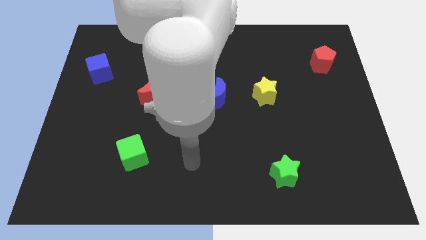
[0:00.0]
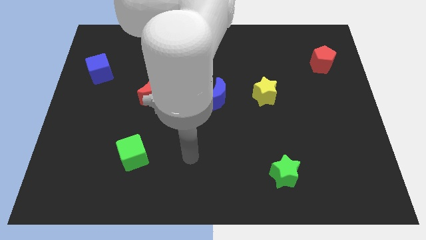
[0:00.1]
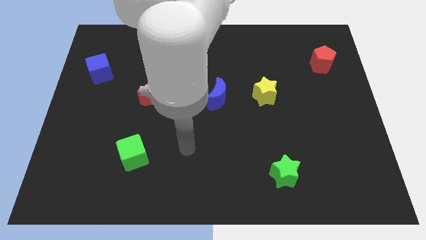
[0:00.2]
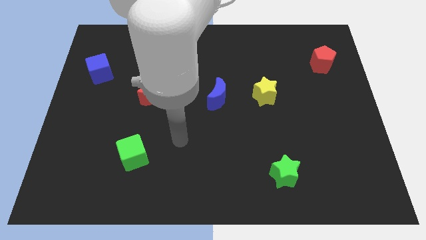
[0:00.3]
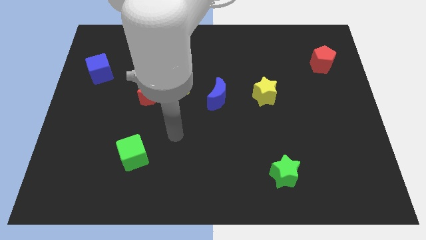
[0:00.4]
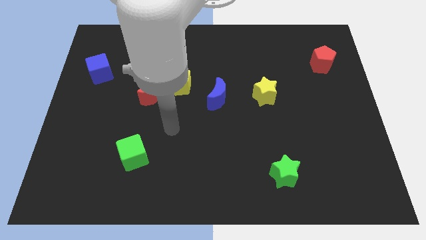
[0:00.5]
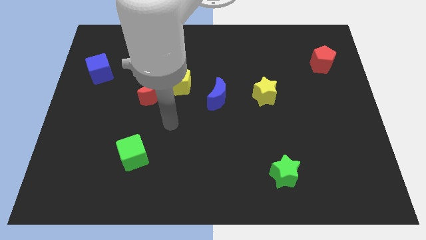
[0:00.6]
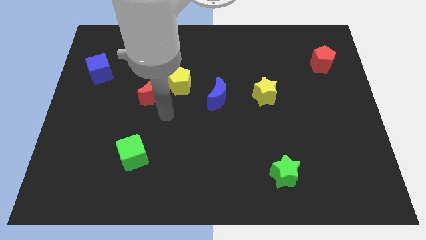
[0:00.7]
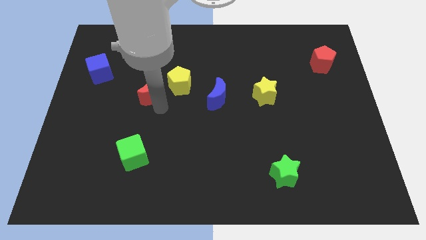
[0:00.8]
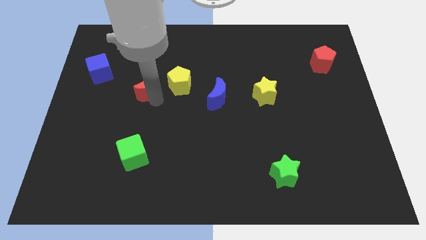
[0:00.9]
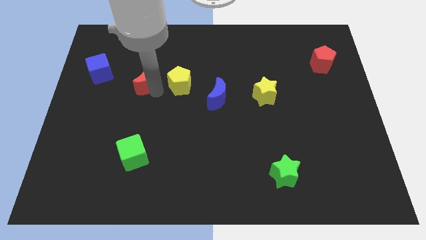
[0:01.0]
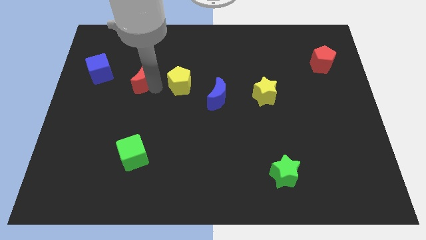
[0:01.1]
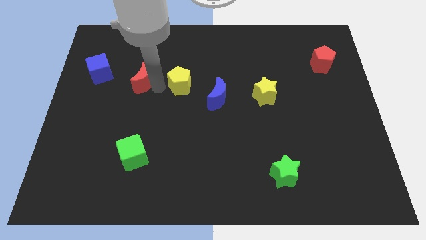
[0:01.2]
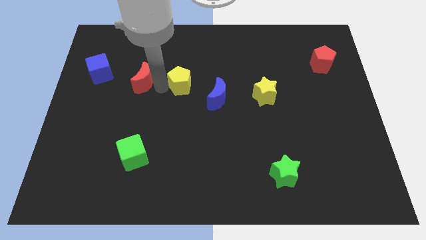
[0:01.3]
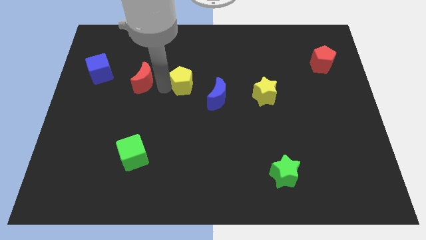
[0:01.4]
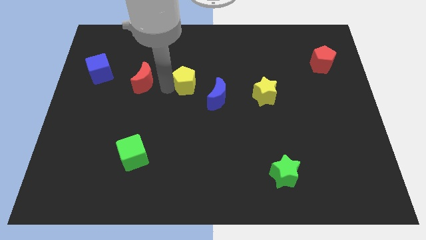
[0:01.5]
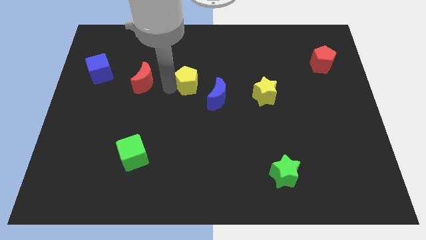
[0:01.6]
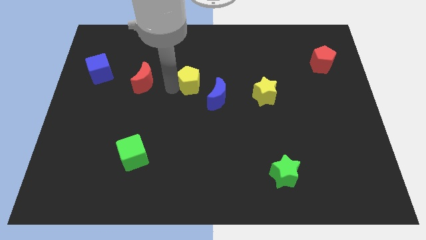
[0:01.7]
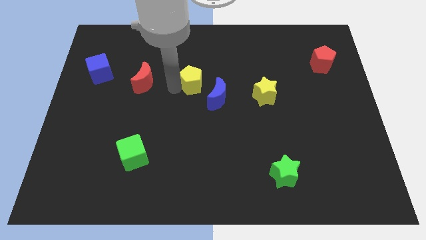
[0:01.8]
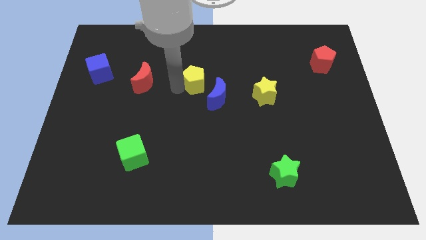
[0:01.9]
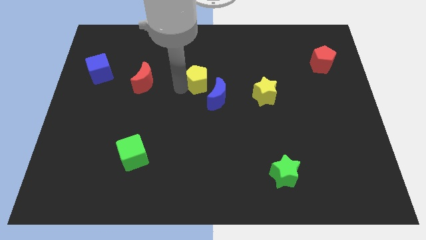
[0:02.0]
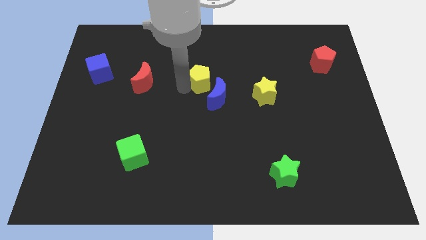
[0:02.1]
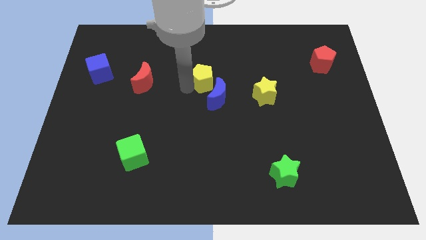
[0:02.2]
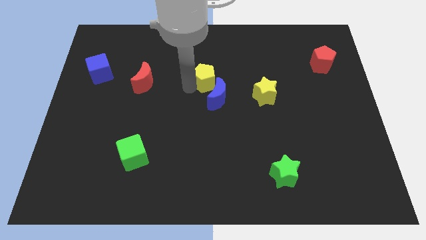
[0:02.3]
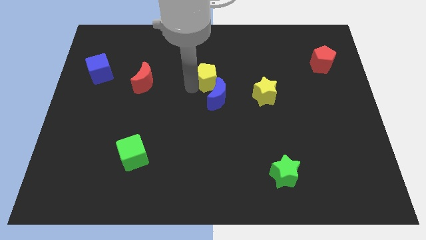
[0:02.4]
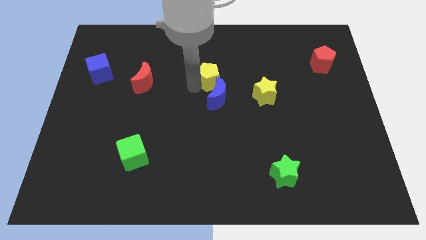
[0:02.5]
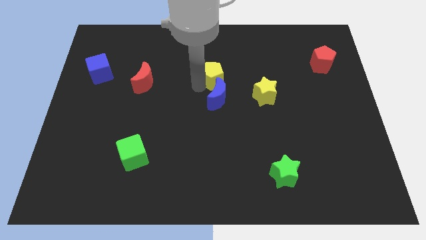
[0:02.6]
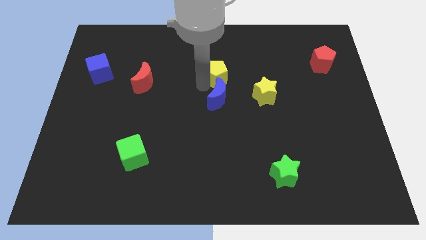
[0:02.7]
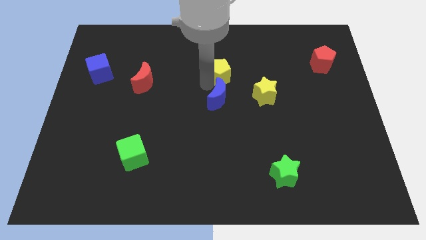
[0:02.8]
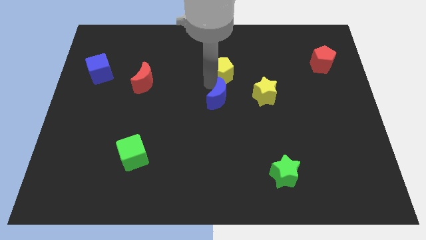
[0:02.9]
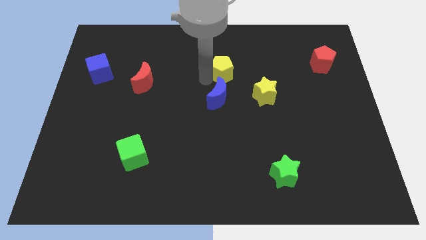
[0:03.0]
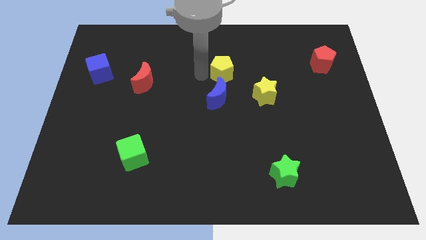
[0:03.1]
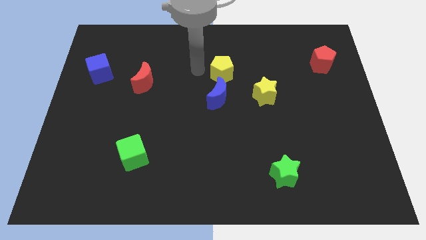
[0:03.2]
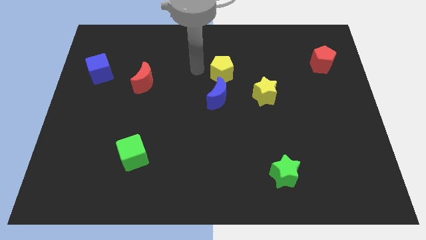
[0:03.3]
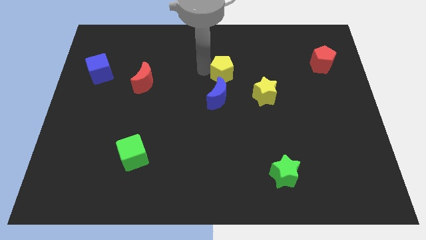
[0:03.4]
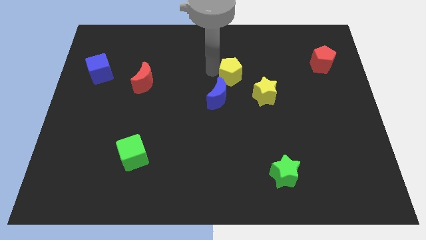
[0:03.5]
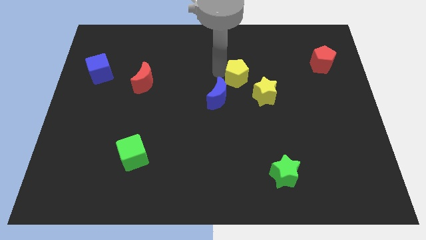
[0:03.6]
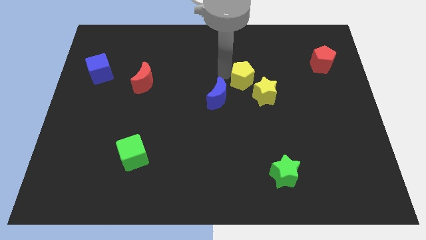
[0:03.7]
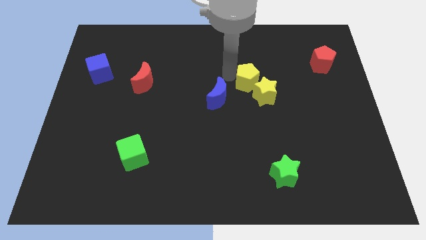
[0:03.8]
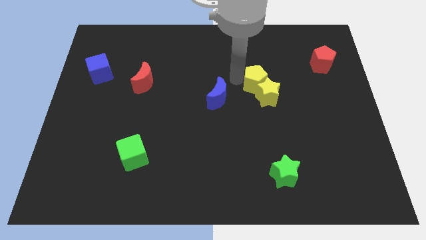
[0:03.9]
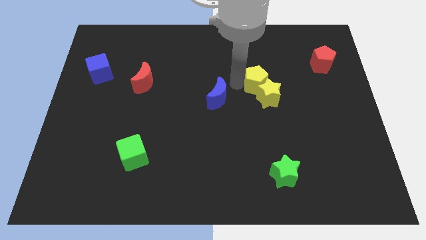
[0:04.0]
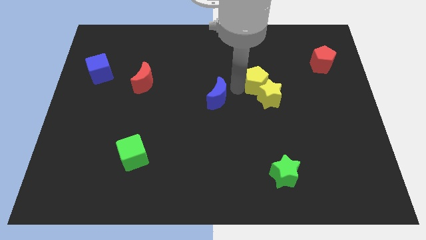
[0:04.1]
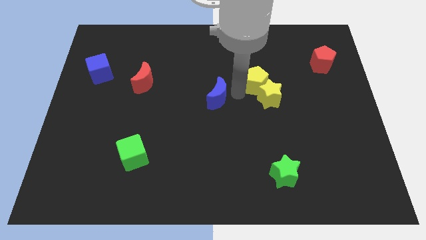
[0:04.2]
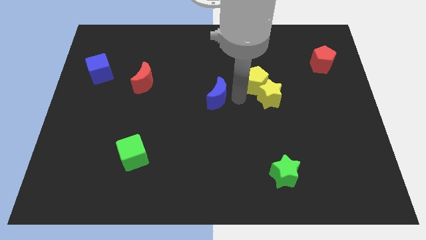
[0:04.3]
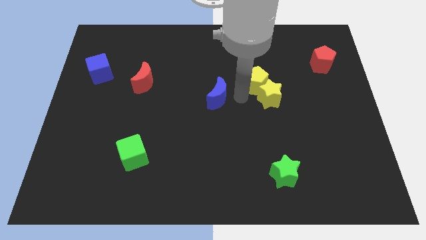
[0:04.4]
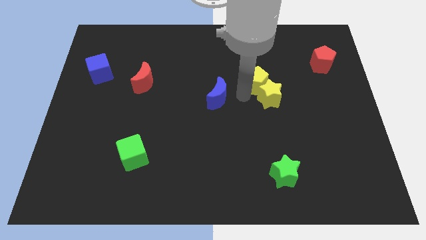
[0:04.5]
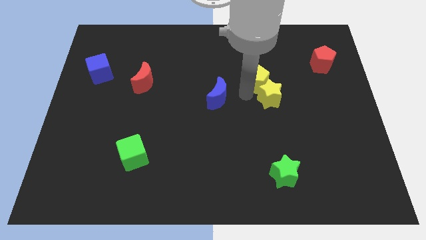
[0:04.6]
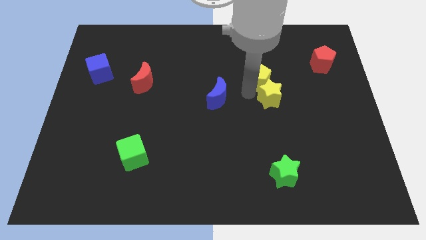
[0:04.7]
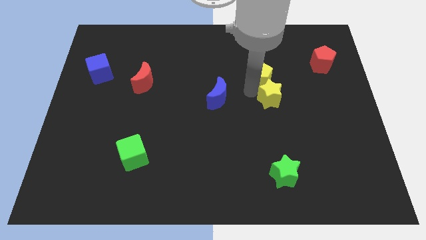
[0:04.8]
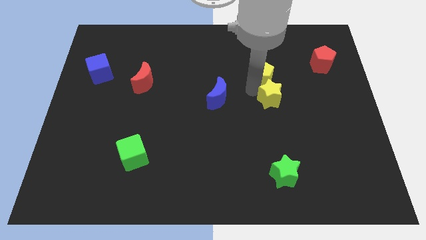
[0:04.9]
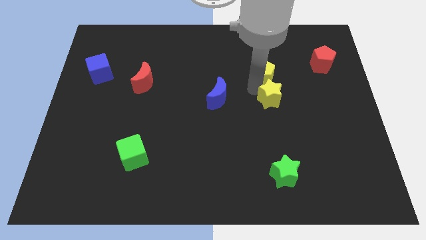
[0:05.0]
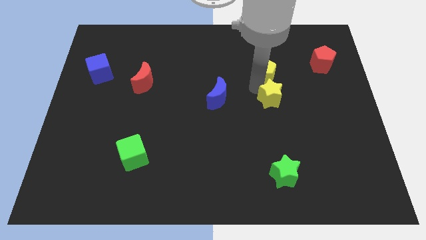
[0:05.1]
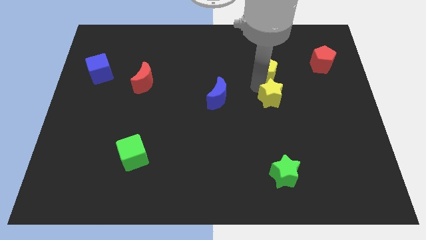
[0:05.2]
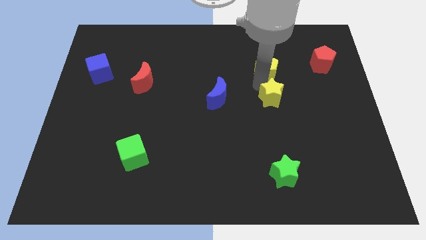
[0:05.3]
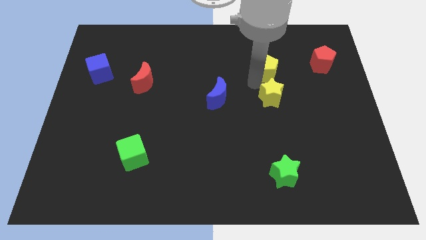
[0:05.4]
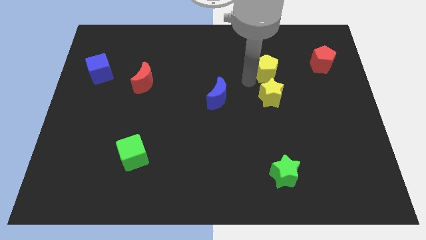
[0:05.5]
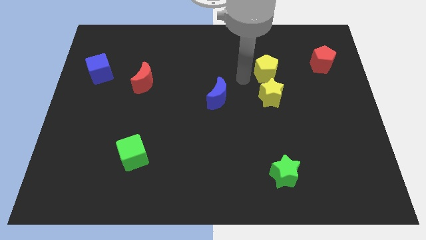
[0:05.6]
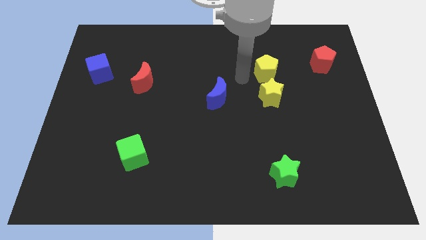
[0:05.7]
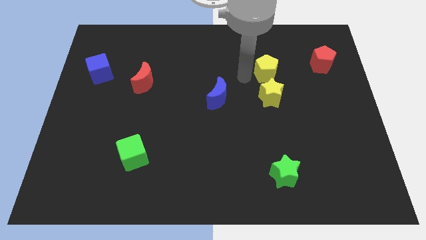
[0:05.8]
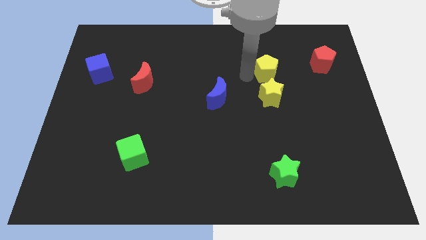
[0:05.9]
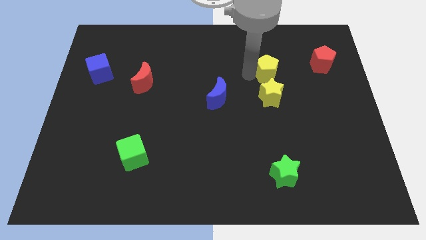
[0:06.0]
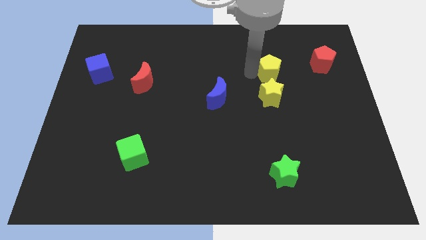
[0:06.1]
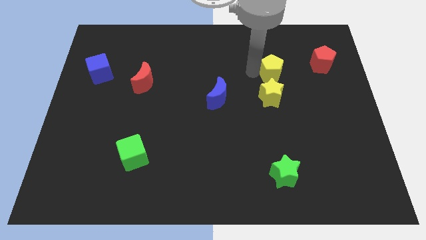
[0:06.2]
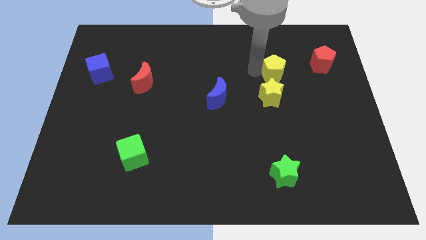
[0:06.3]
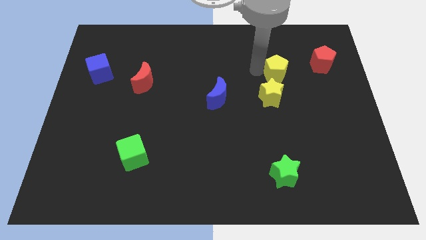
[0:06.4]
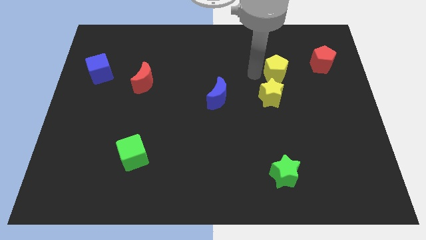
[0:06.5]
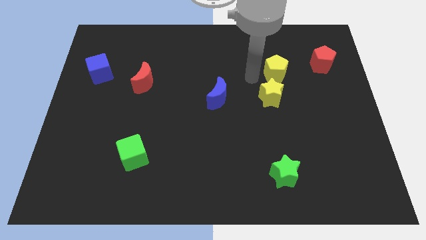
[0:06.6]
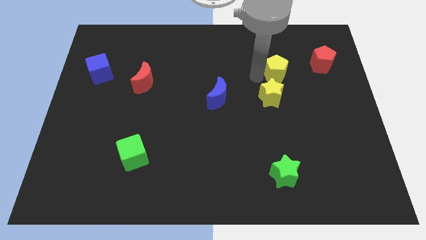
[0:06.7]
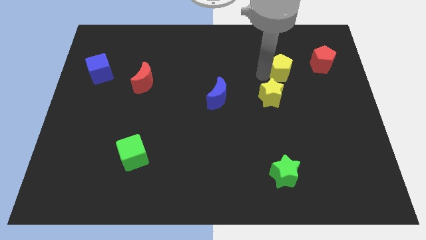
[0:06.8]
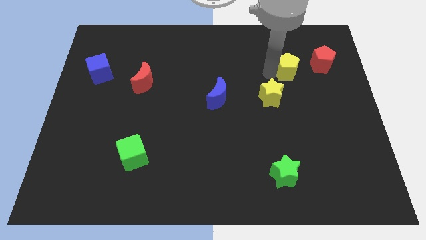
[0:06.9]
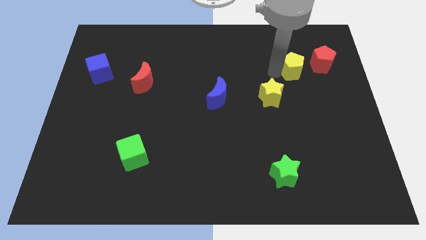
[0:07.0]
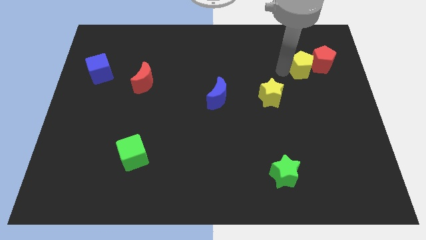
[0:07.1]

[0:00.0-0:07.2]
move the yellow pentagon towards the red pentagon
